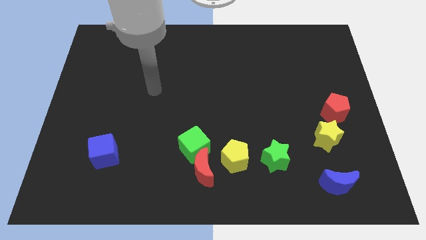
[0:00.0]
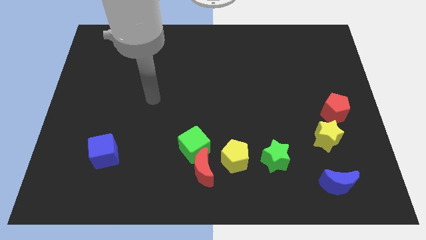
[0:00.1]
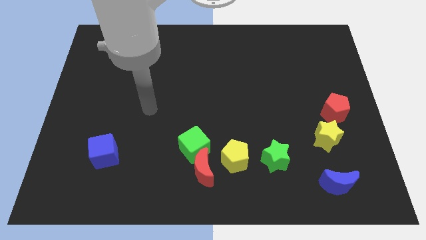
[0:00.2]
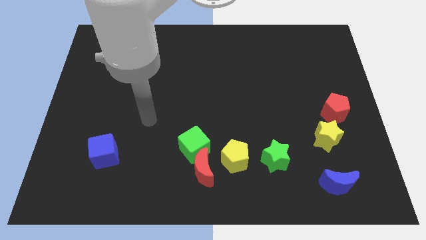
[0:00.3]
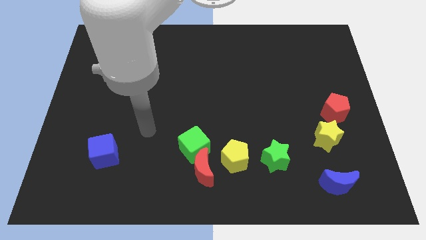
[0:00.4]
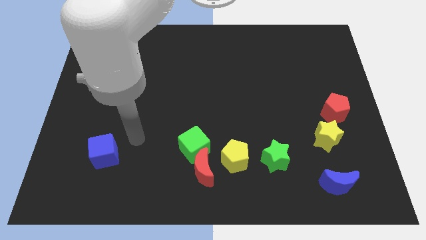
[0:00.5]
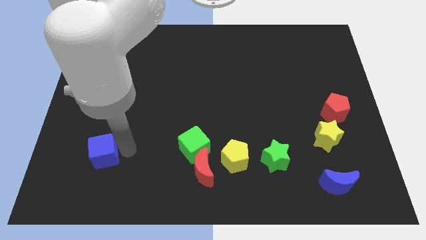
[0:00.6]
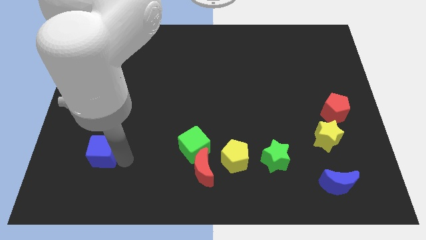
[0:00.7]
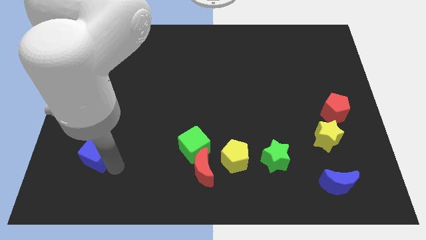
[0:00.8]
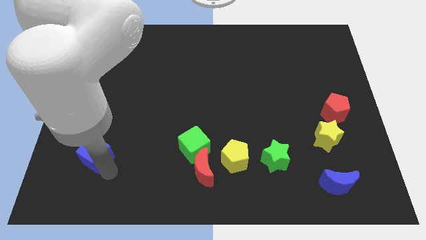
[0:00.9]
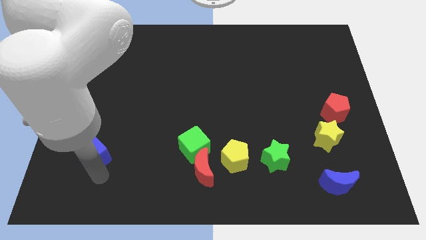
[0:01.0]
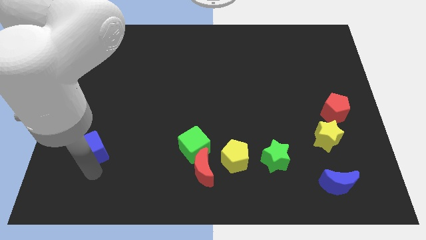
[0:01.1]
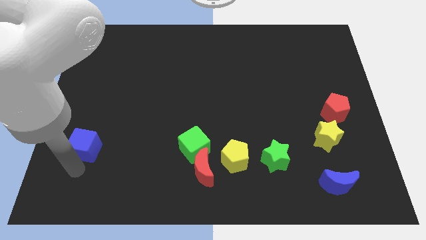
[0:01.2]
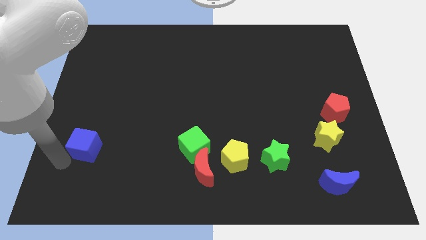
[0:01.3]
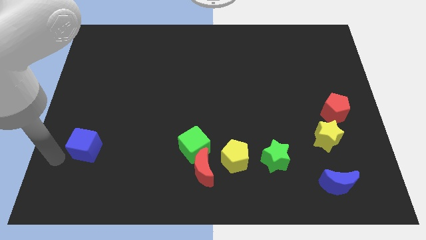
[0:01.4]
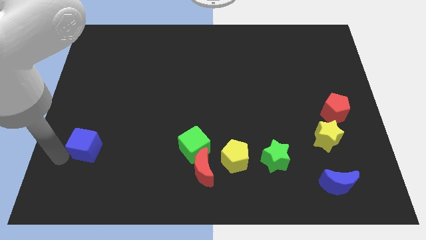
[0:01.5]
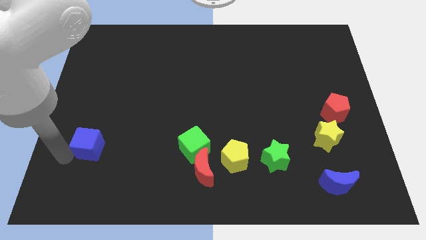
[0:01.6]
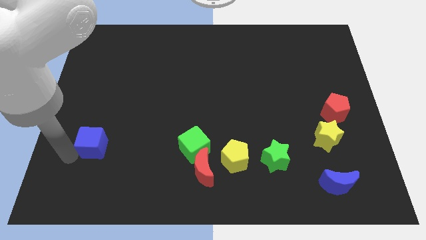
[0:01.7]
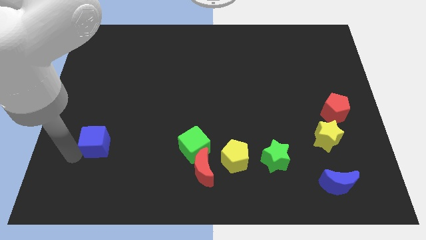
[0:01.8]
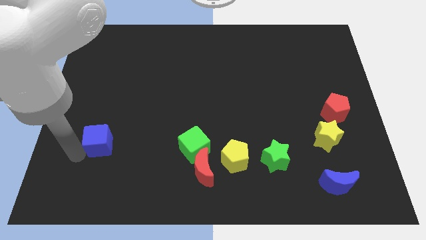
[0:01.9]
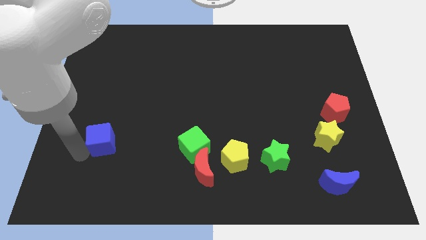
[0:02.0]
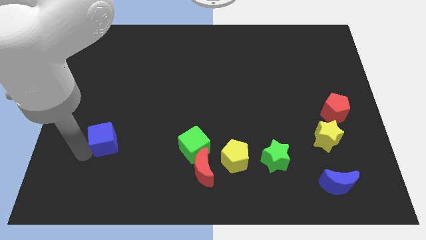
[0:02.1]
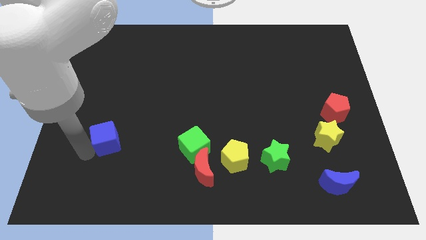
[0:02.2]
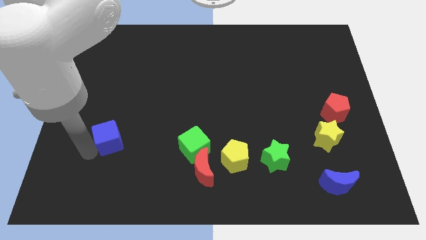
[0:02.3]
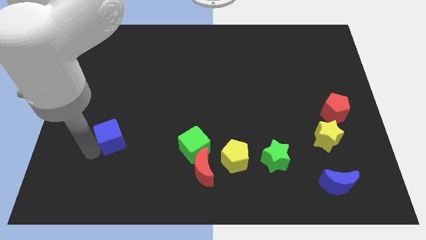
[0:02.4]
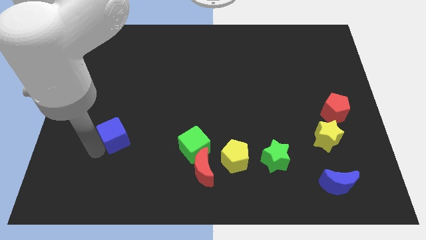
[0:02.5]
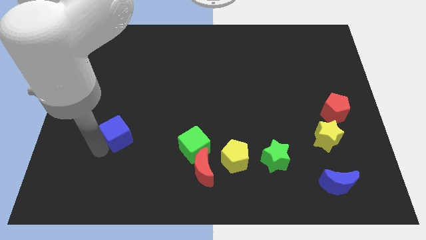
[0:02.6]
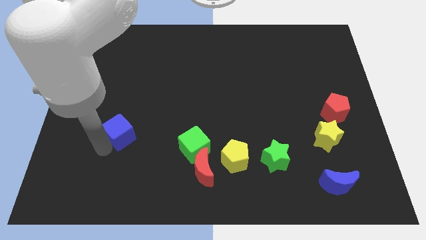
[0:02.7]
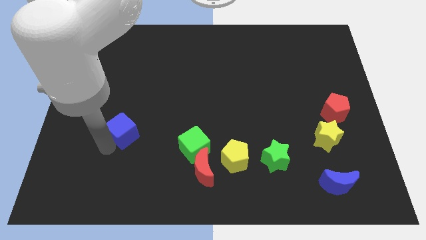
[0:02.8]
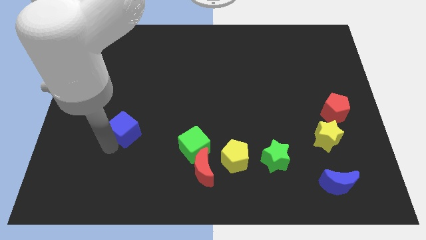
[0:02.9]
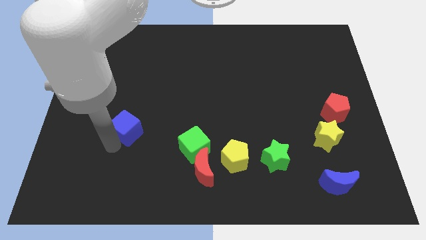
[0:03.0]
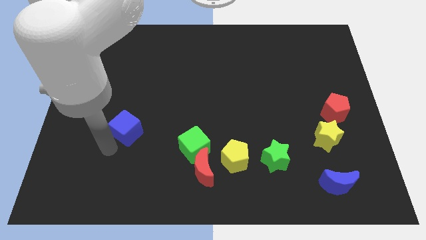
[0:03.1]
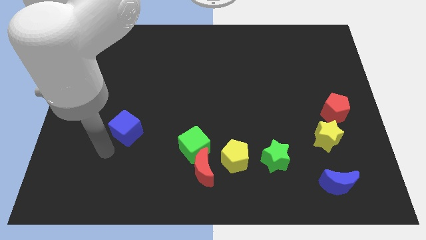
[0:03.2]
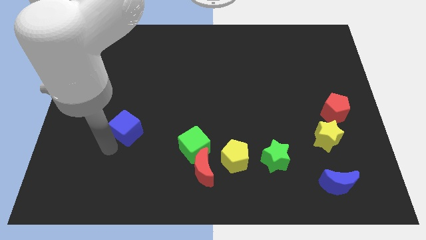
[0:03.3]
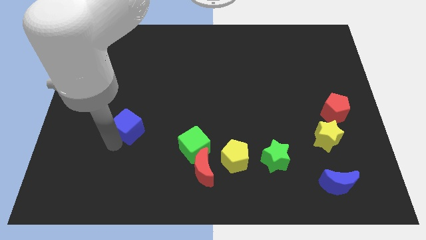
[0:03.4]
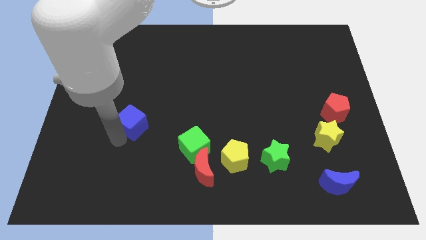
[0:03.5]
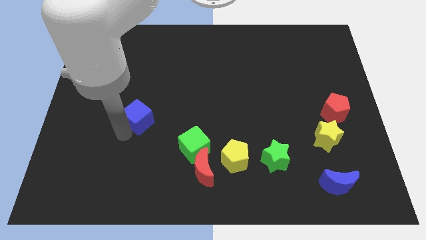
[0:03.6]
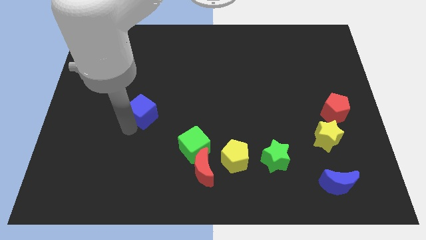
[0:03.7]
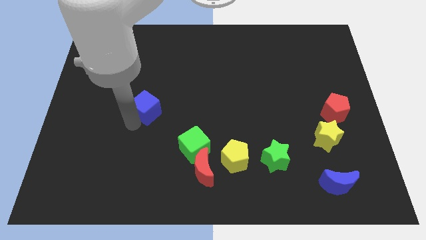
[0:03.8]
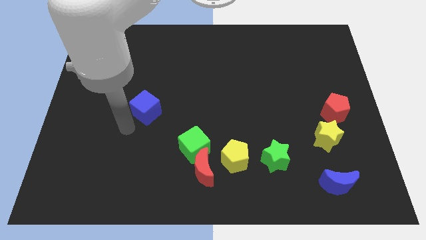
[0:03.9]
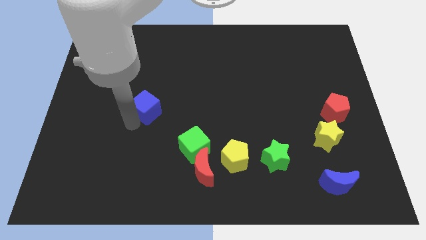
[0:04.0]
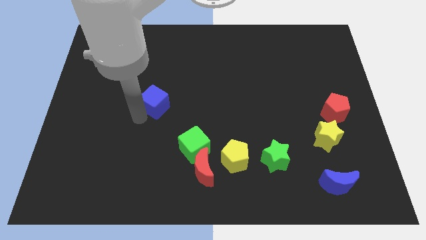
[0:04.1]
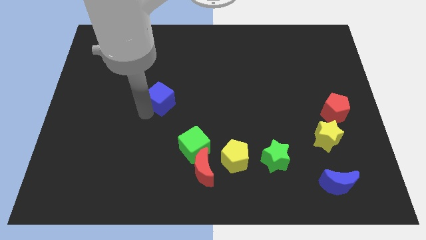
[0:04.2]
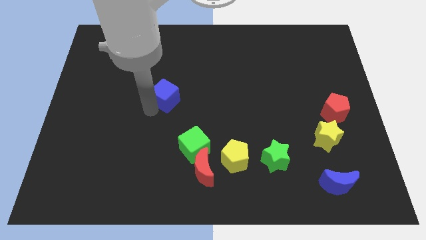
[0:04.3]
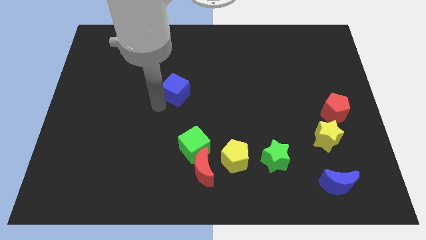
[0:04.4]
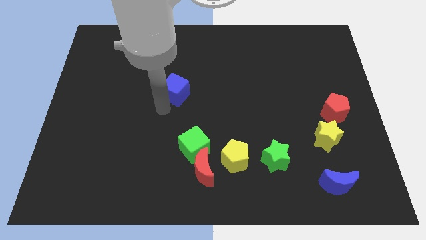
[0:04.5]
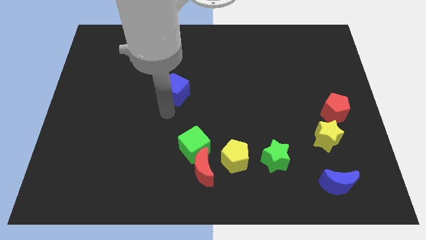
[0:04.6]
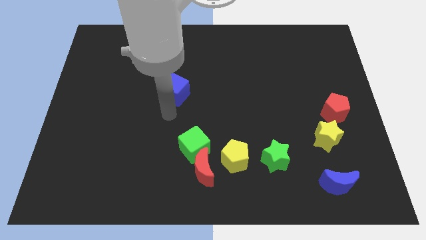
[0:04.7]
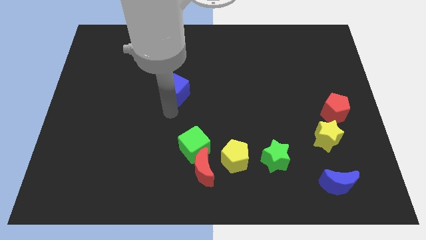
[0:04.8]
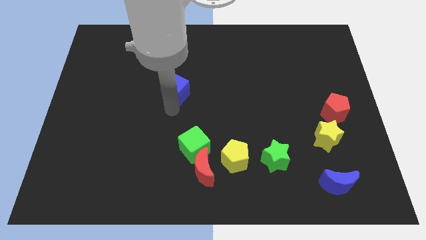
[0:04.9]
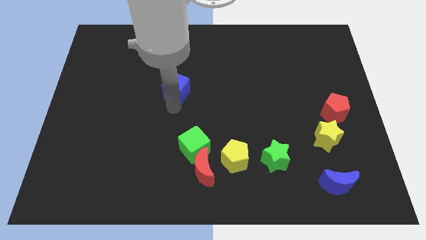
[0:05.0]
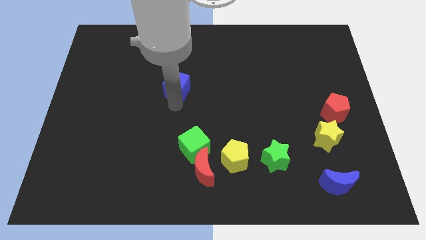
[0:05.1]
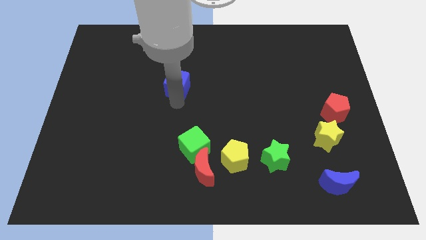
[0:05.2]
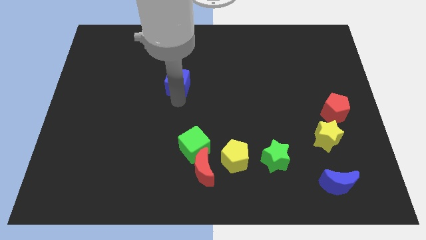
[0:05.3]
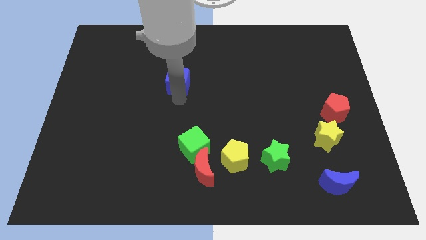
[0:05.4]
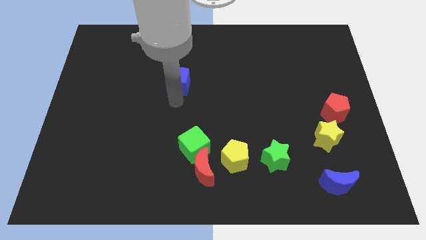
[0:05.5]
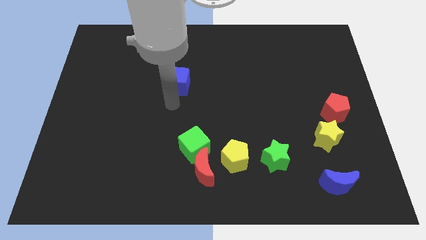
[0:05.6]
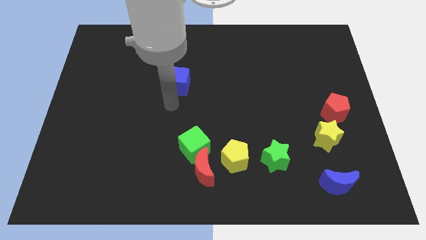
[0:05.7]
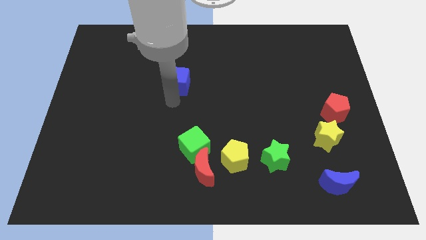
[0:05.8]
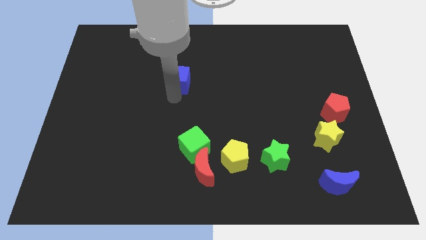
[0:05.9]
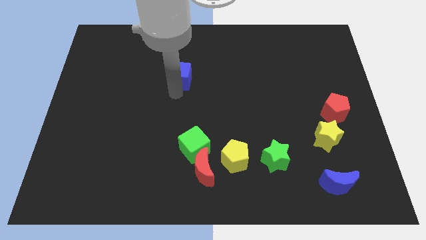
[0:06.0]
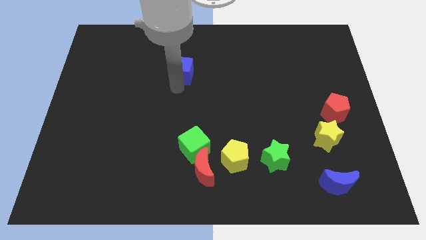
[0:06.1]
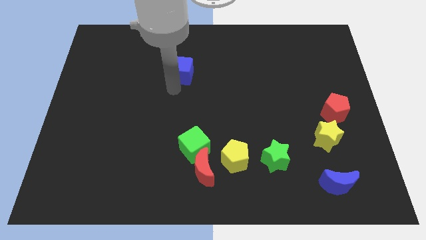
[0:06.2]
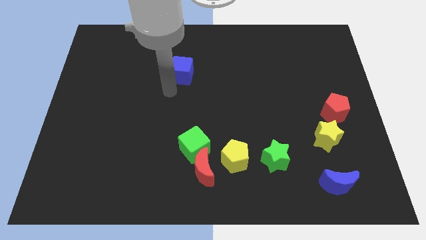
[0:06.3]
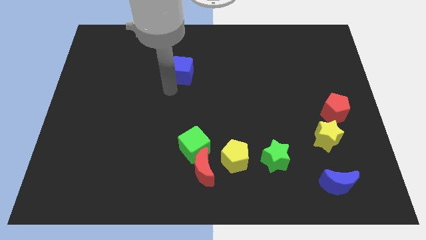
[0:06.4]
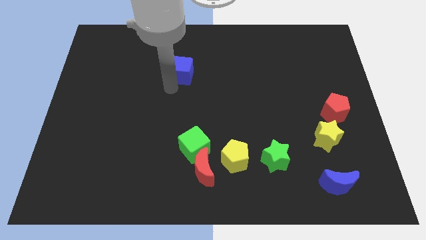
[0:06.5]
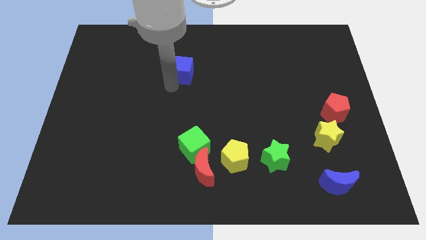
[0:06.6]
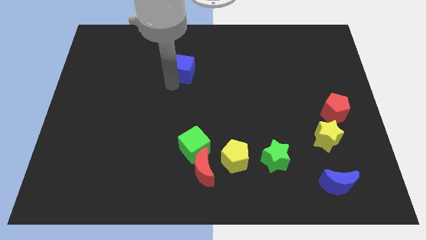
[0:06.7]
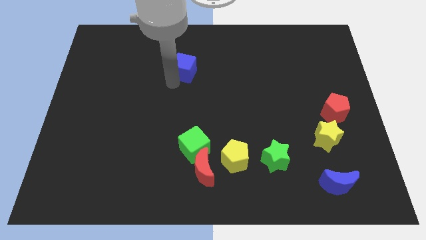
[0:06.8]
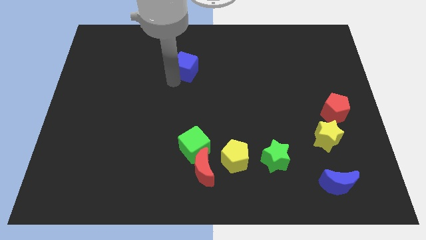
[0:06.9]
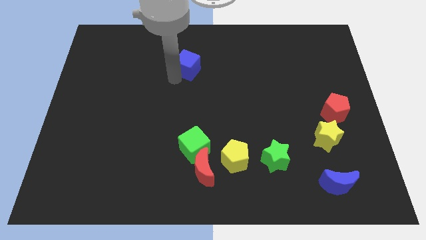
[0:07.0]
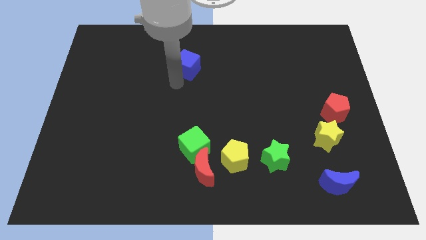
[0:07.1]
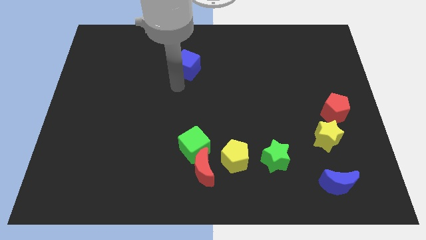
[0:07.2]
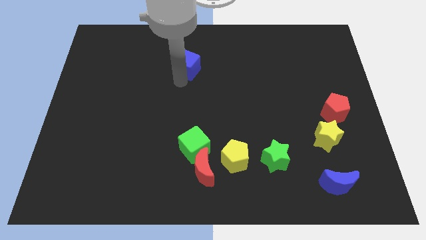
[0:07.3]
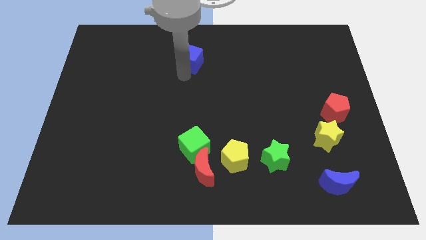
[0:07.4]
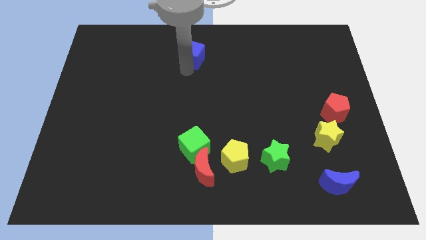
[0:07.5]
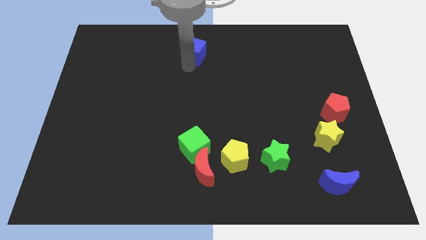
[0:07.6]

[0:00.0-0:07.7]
put the blue cube to the top side
